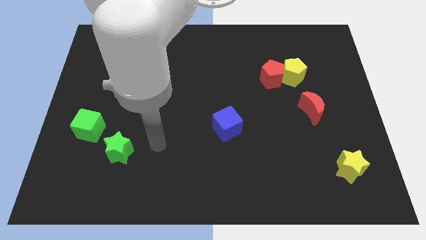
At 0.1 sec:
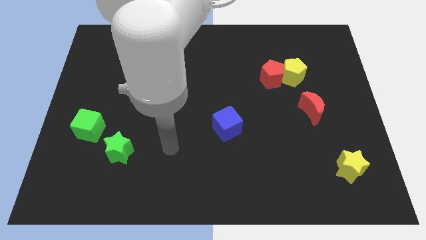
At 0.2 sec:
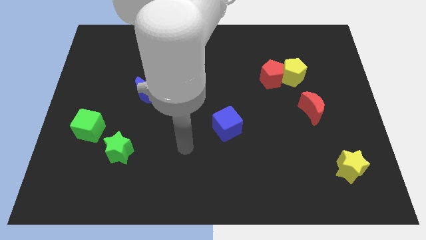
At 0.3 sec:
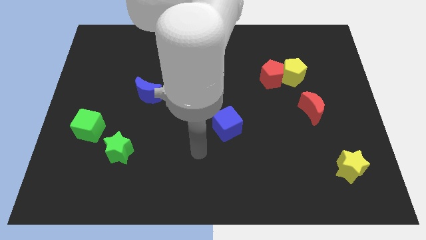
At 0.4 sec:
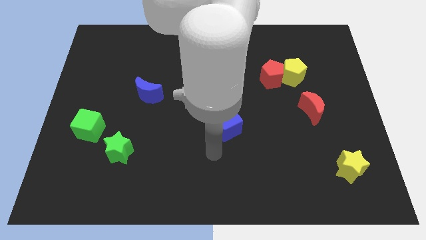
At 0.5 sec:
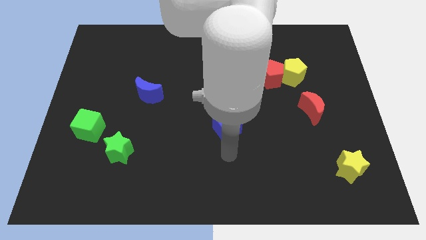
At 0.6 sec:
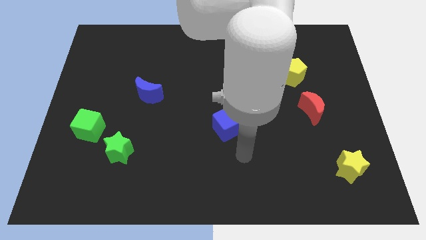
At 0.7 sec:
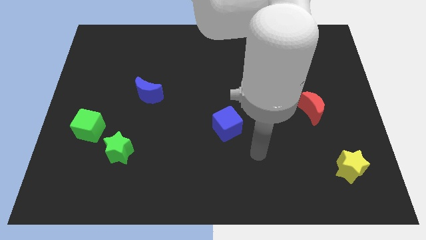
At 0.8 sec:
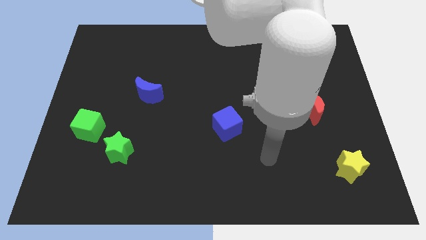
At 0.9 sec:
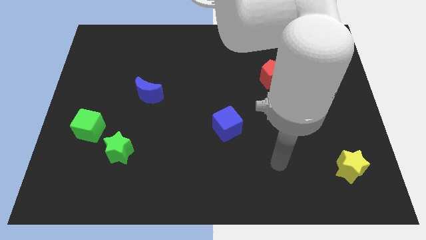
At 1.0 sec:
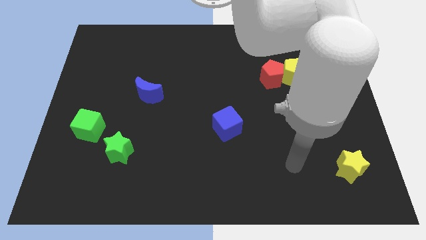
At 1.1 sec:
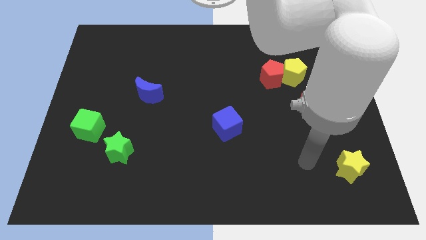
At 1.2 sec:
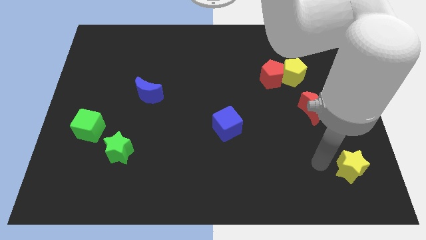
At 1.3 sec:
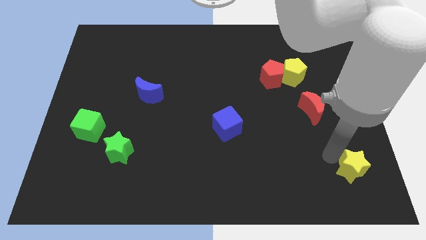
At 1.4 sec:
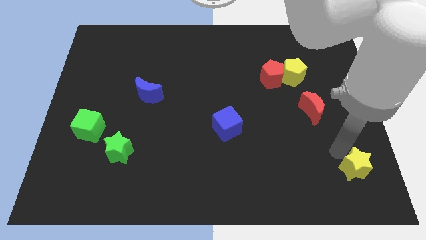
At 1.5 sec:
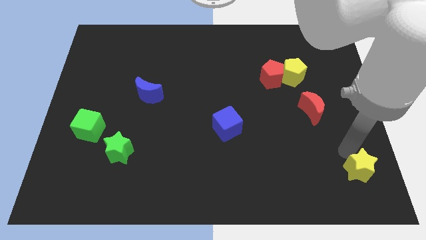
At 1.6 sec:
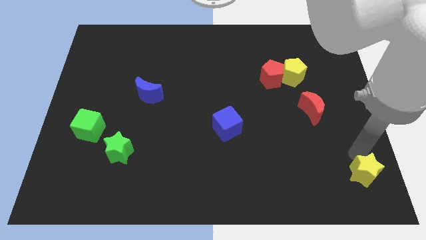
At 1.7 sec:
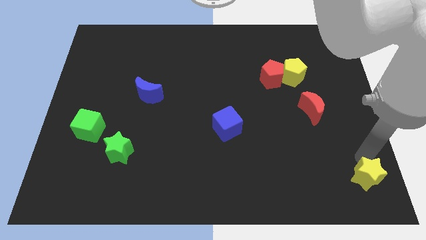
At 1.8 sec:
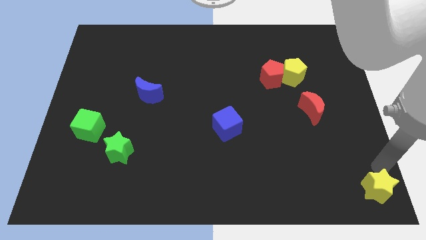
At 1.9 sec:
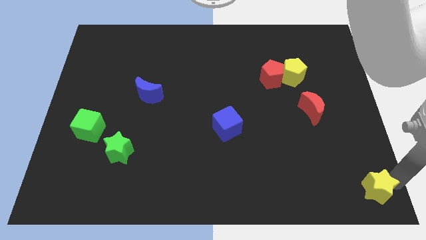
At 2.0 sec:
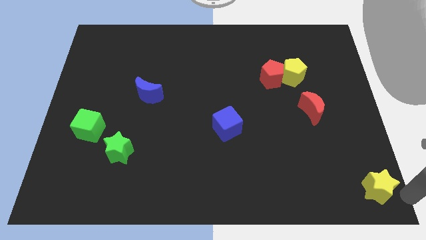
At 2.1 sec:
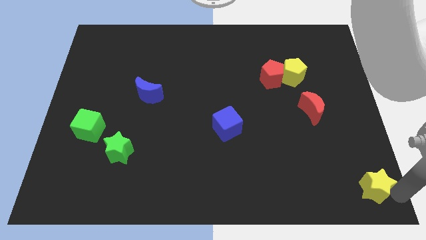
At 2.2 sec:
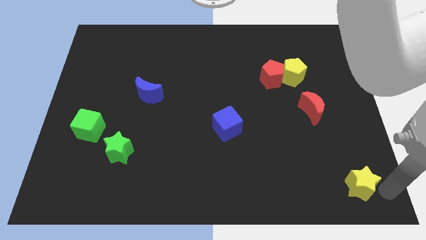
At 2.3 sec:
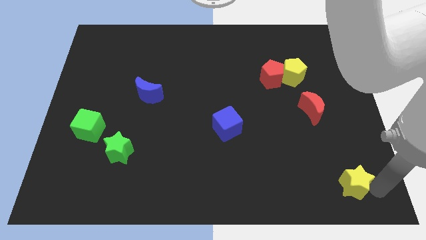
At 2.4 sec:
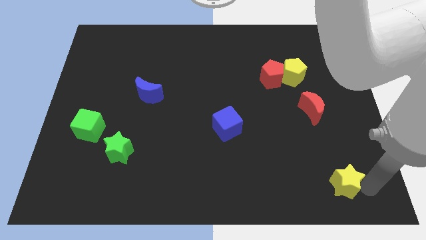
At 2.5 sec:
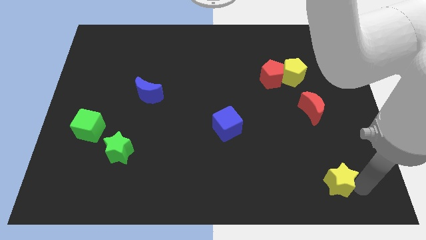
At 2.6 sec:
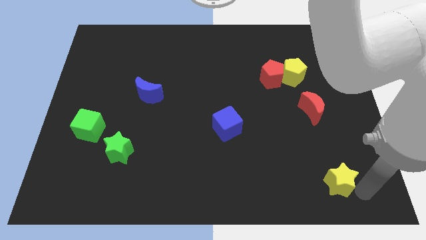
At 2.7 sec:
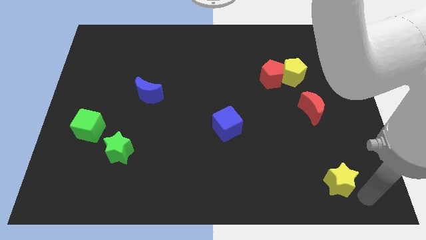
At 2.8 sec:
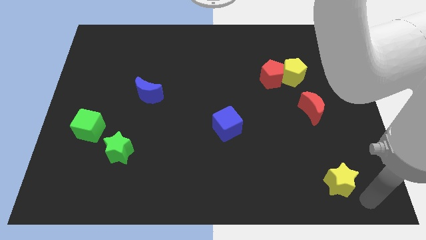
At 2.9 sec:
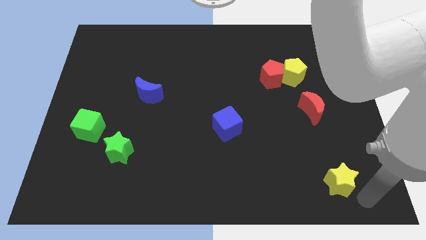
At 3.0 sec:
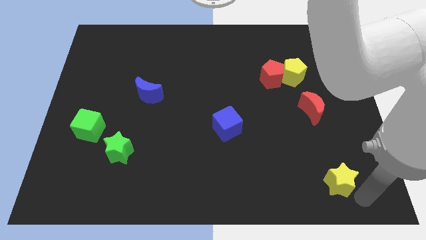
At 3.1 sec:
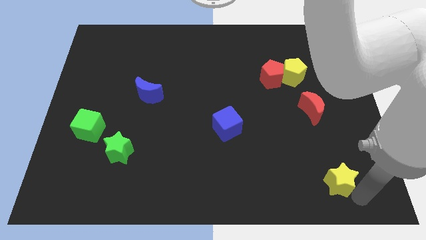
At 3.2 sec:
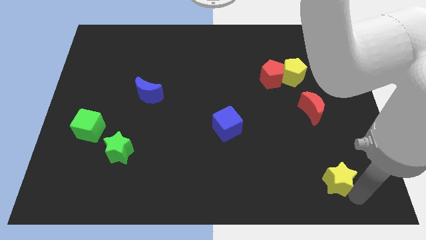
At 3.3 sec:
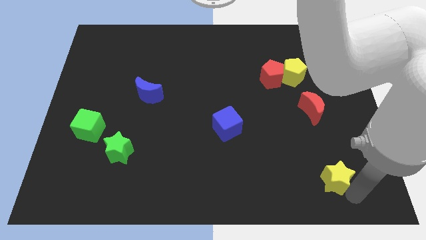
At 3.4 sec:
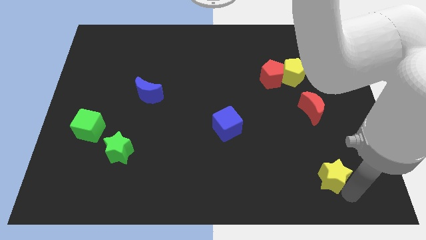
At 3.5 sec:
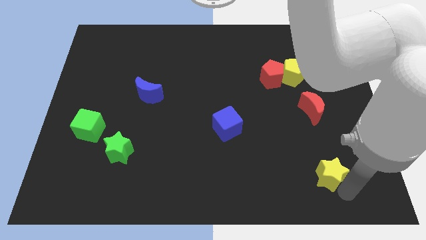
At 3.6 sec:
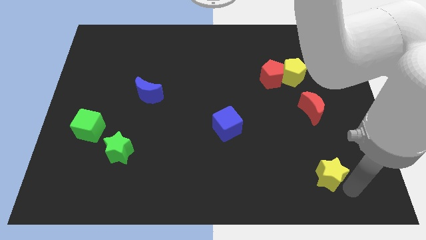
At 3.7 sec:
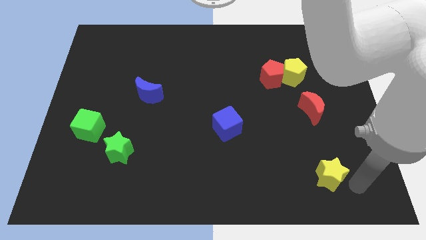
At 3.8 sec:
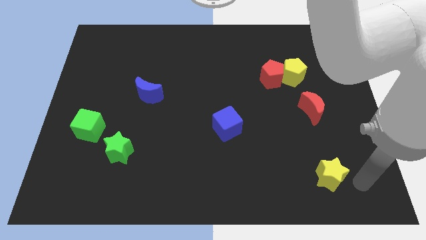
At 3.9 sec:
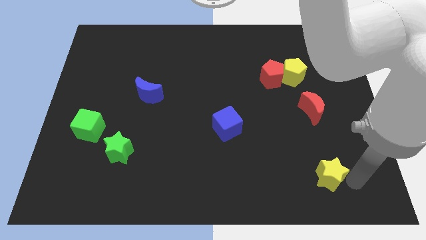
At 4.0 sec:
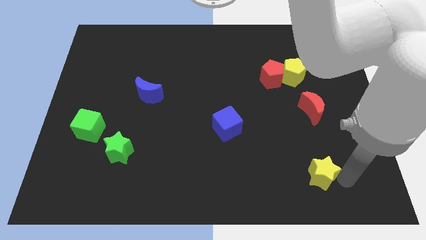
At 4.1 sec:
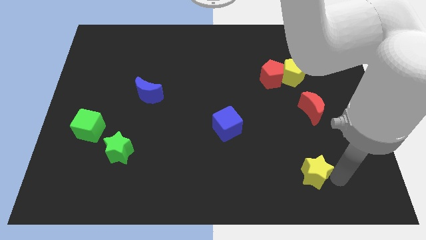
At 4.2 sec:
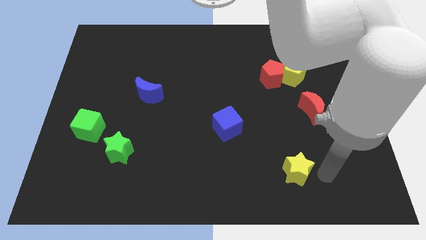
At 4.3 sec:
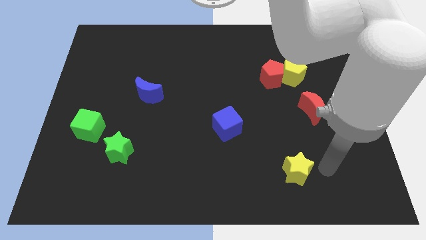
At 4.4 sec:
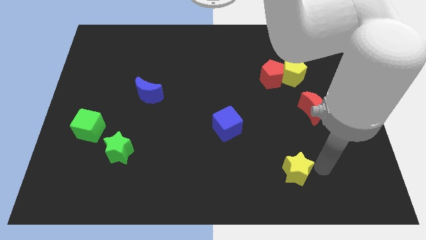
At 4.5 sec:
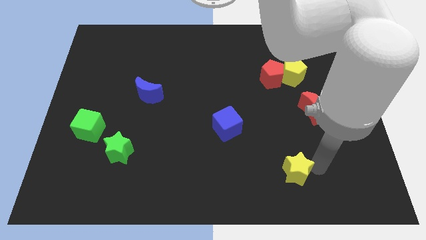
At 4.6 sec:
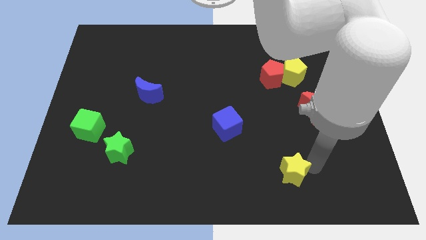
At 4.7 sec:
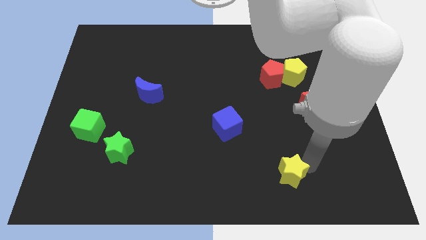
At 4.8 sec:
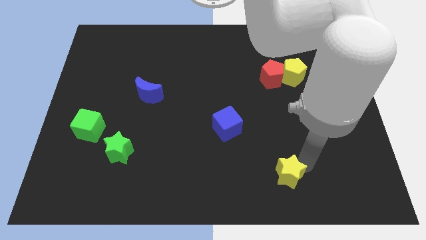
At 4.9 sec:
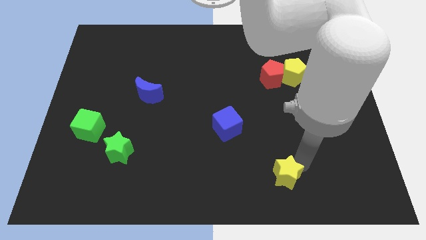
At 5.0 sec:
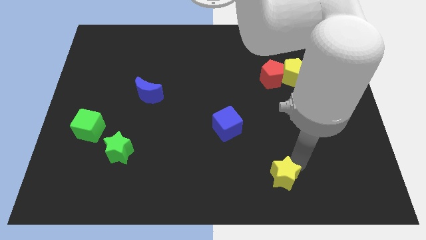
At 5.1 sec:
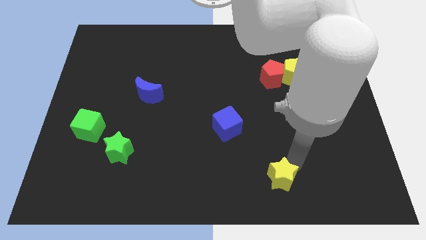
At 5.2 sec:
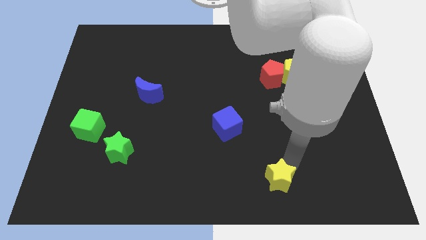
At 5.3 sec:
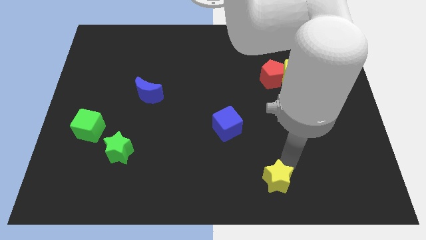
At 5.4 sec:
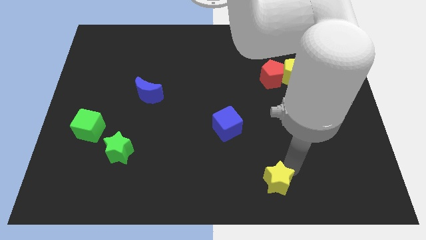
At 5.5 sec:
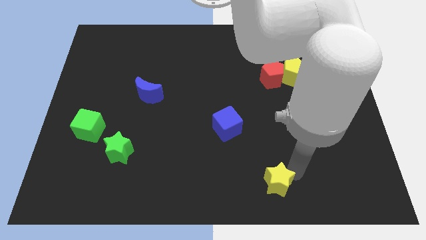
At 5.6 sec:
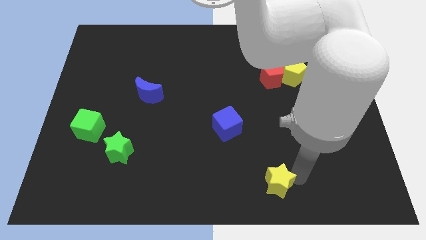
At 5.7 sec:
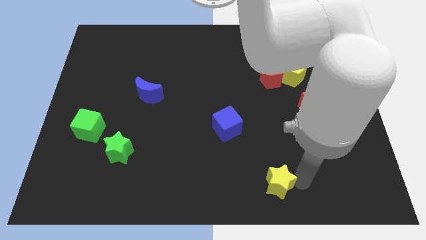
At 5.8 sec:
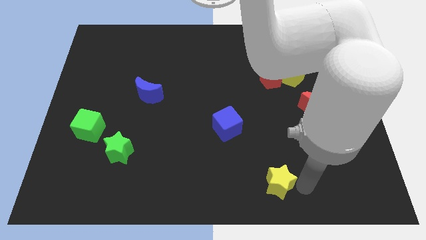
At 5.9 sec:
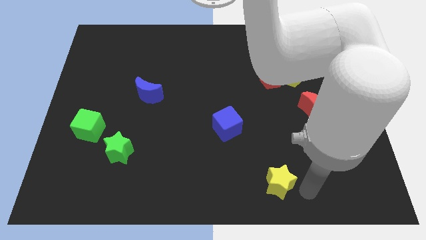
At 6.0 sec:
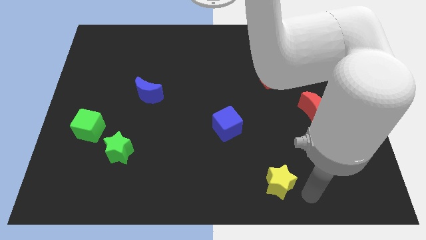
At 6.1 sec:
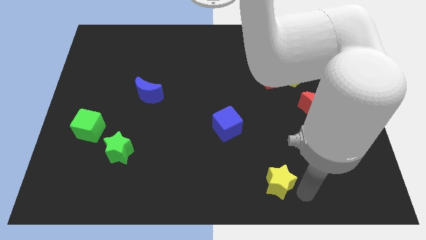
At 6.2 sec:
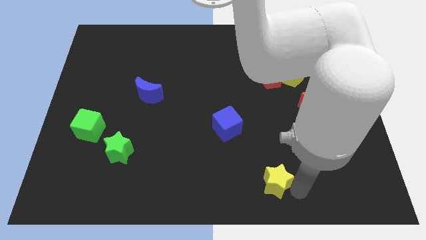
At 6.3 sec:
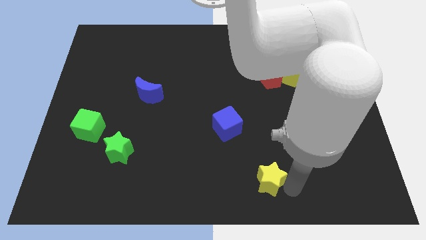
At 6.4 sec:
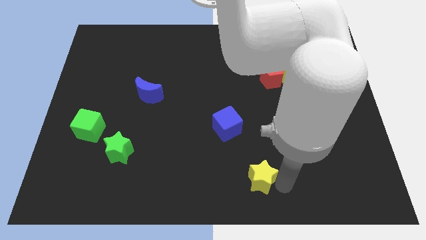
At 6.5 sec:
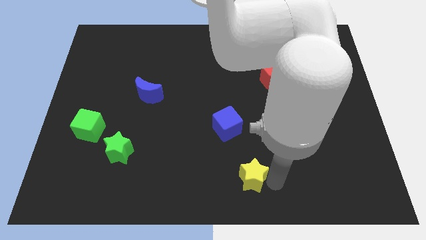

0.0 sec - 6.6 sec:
slide the yellow star left

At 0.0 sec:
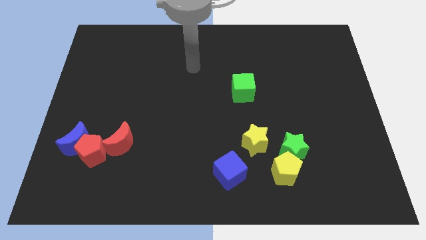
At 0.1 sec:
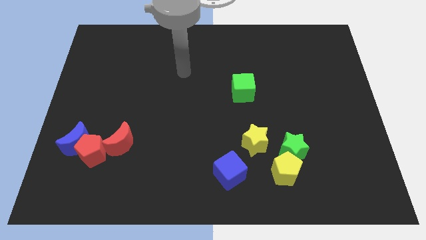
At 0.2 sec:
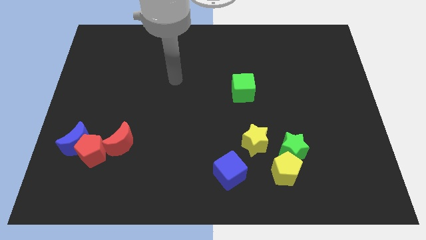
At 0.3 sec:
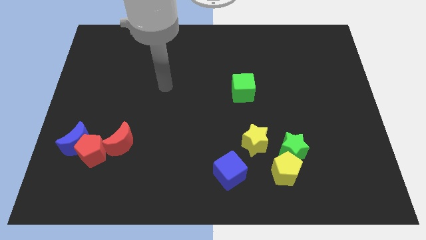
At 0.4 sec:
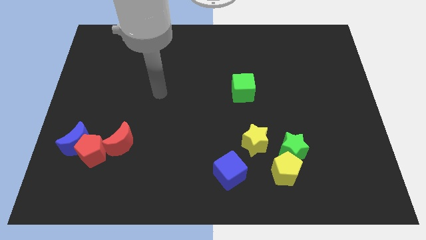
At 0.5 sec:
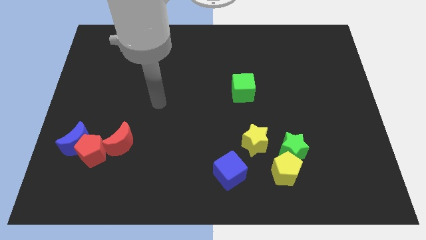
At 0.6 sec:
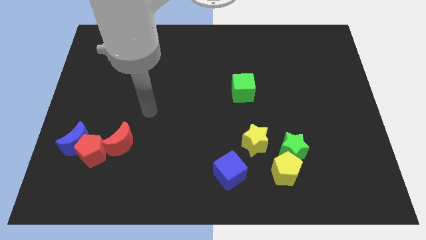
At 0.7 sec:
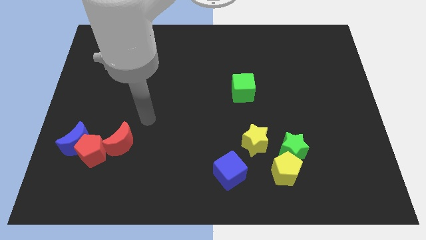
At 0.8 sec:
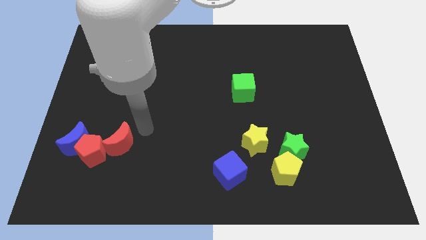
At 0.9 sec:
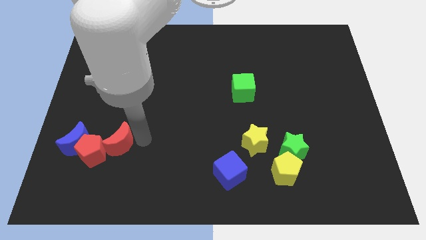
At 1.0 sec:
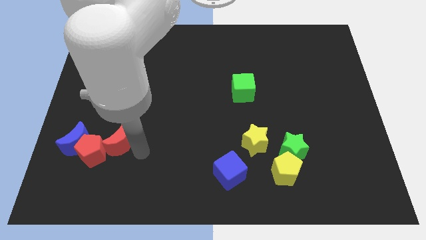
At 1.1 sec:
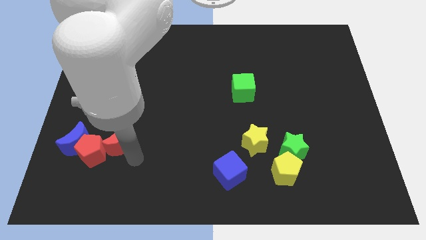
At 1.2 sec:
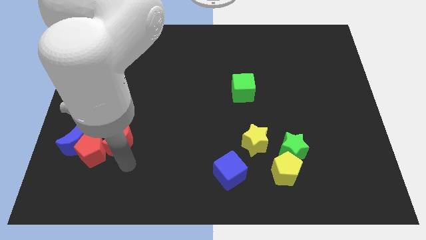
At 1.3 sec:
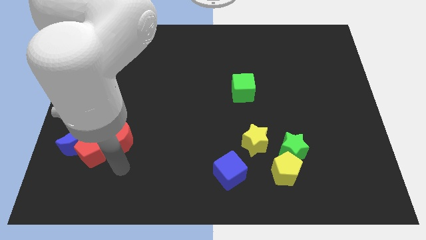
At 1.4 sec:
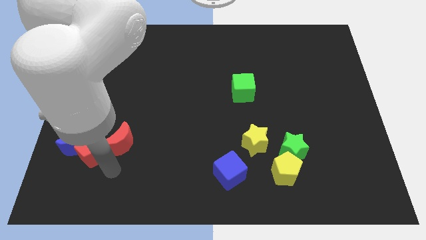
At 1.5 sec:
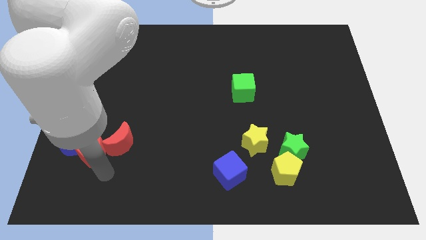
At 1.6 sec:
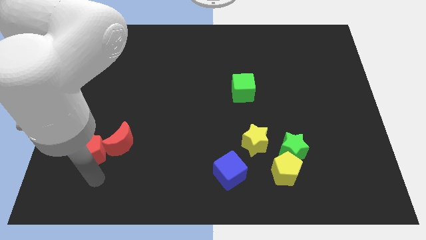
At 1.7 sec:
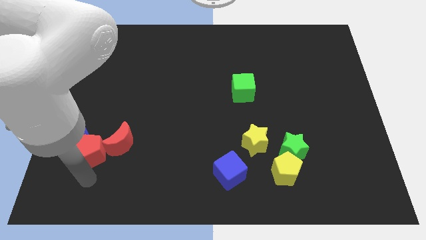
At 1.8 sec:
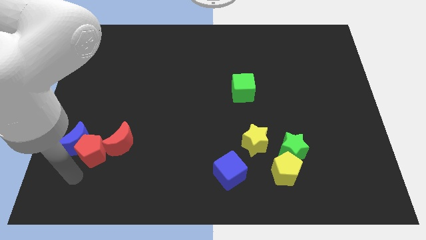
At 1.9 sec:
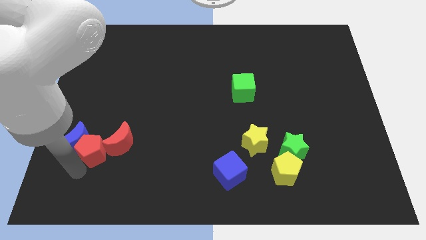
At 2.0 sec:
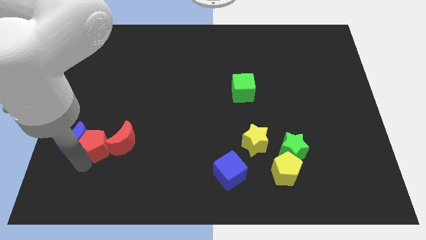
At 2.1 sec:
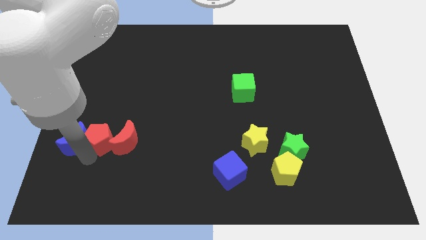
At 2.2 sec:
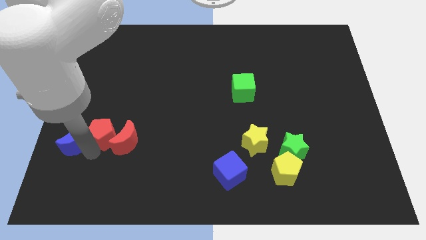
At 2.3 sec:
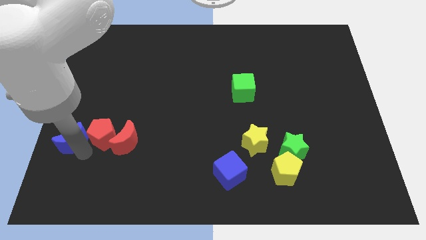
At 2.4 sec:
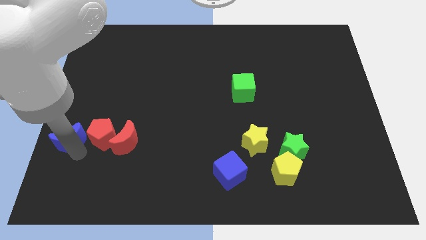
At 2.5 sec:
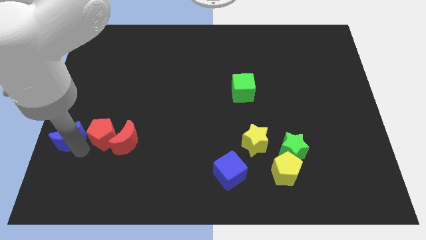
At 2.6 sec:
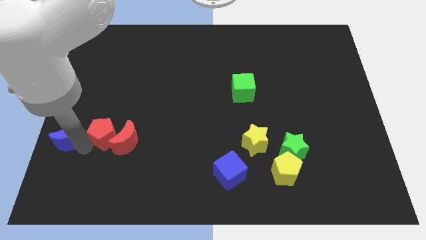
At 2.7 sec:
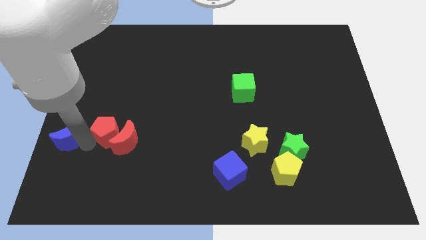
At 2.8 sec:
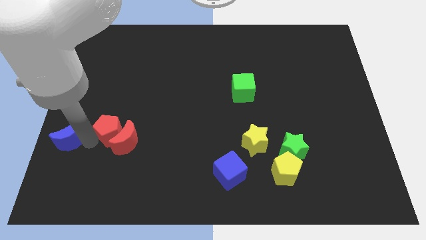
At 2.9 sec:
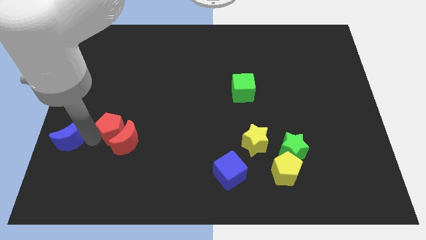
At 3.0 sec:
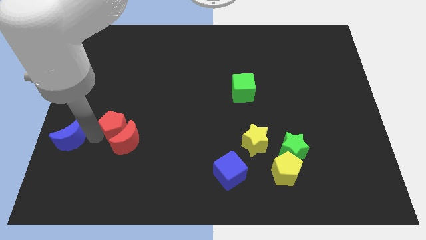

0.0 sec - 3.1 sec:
slightly move the red pentagon upwards and right diagonally
